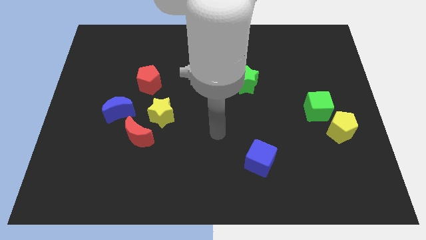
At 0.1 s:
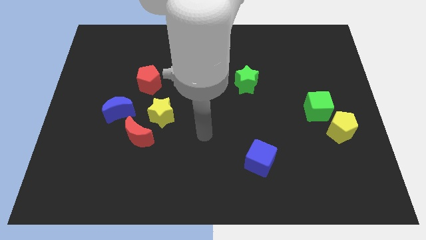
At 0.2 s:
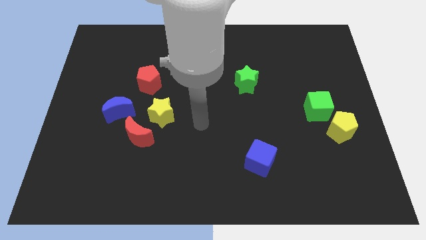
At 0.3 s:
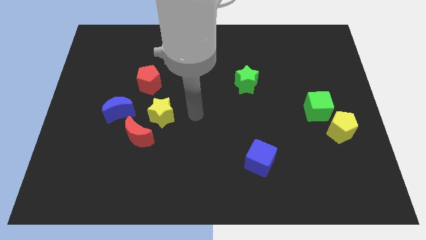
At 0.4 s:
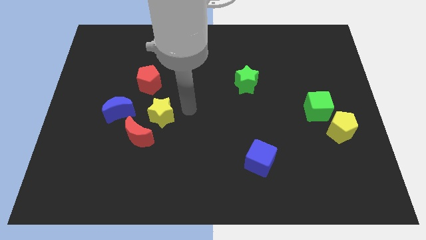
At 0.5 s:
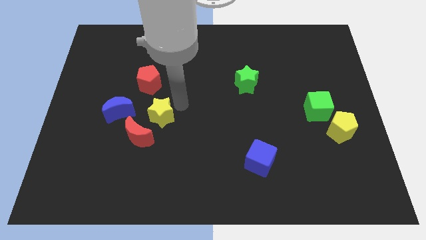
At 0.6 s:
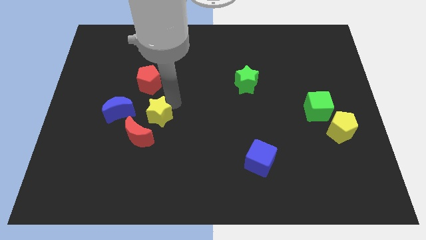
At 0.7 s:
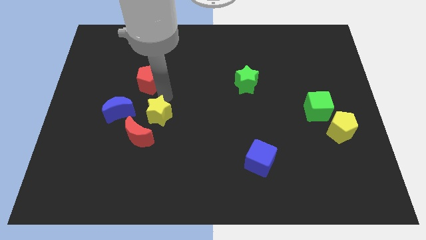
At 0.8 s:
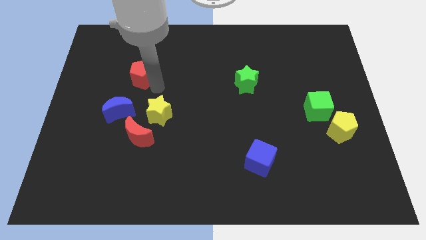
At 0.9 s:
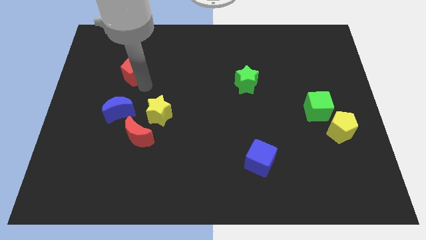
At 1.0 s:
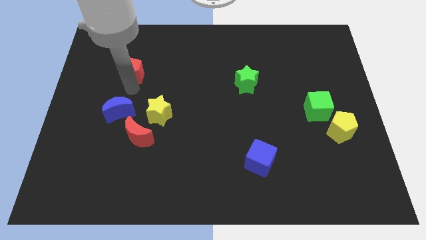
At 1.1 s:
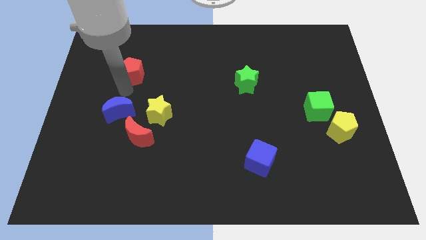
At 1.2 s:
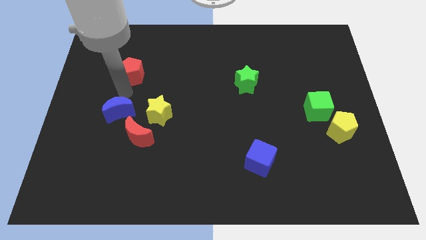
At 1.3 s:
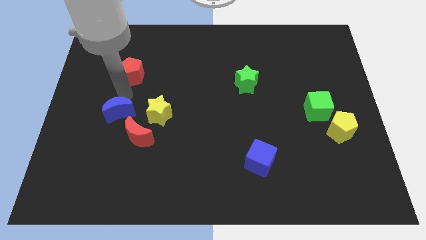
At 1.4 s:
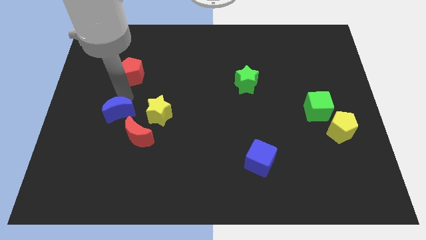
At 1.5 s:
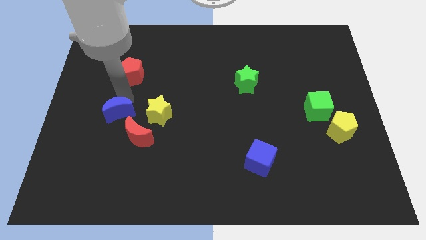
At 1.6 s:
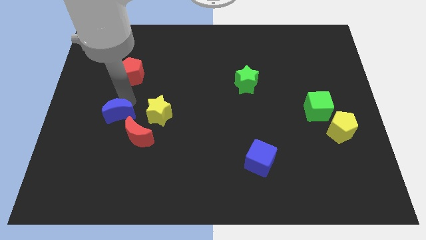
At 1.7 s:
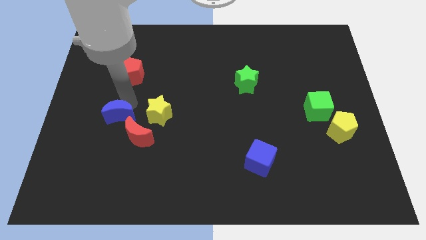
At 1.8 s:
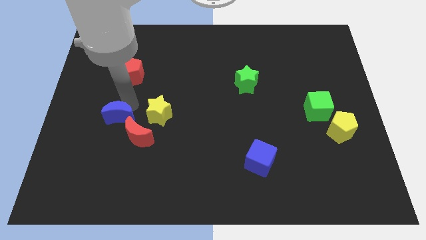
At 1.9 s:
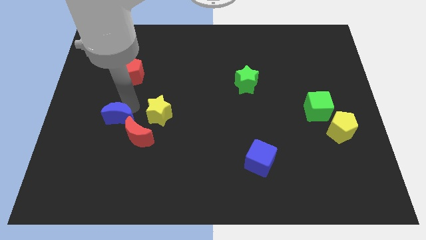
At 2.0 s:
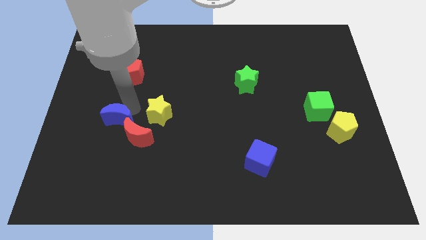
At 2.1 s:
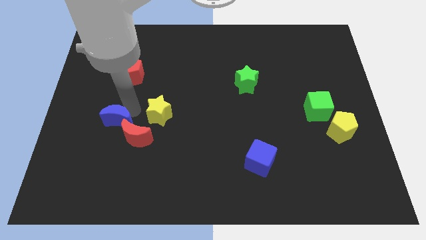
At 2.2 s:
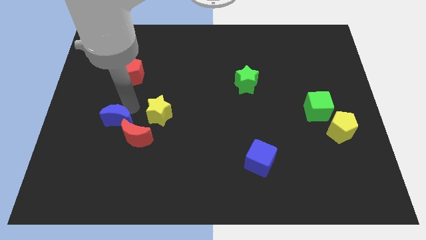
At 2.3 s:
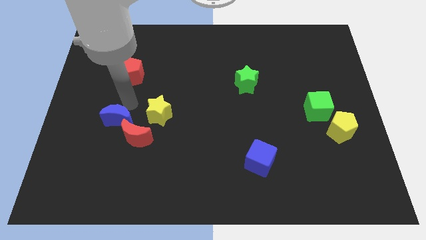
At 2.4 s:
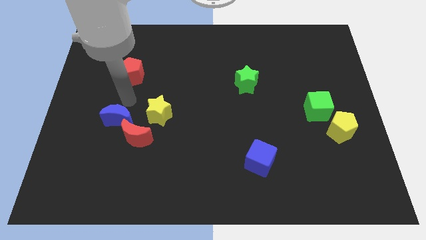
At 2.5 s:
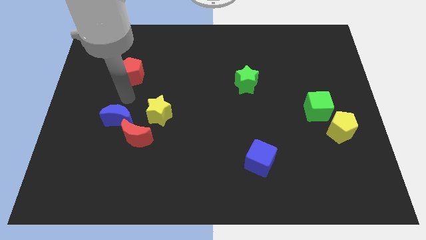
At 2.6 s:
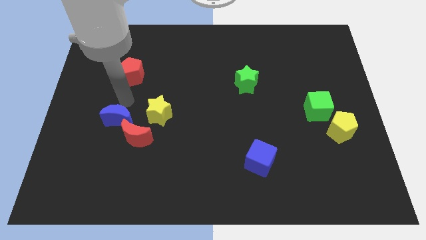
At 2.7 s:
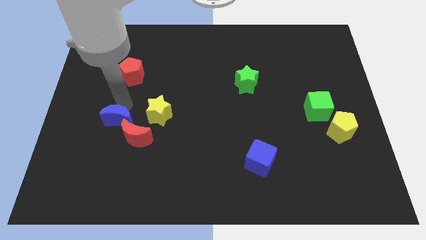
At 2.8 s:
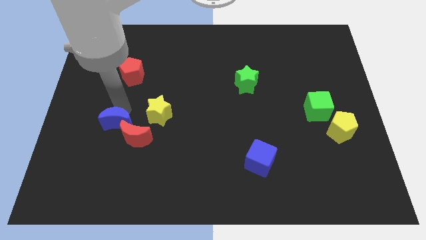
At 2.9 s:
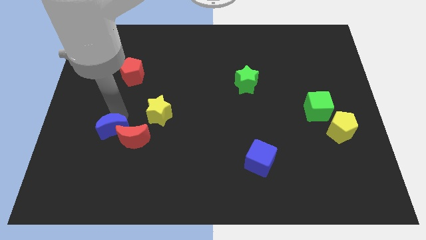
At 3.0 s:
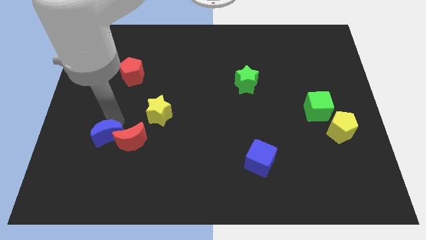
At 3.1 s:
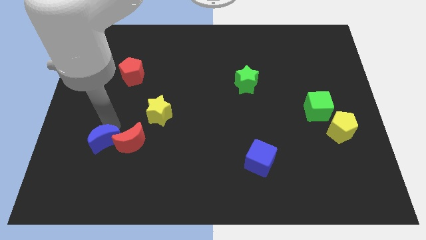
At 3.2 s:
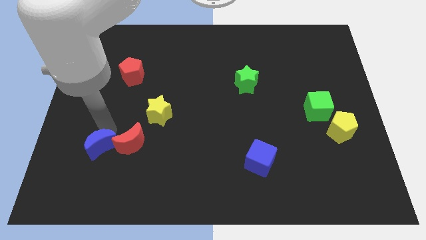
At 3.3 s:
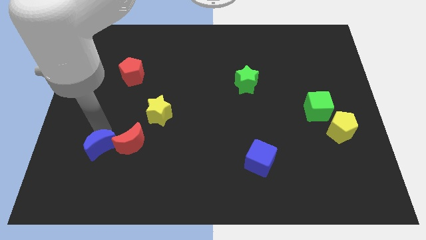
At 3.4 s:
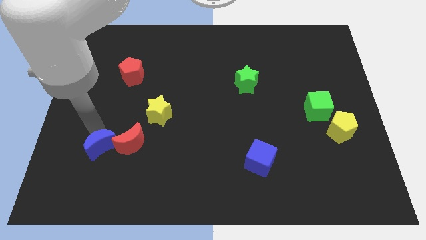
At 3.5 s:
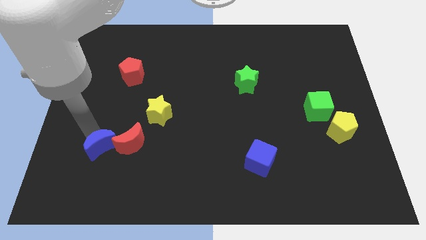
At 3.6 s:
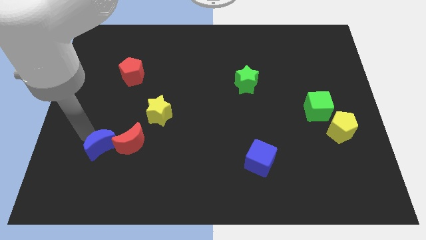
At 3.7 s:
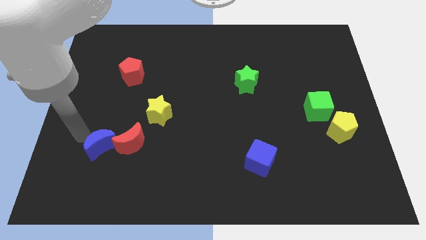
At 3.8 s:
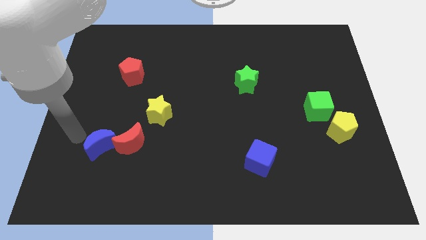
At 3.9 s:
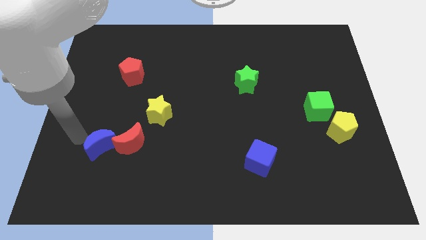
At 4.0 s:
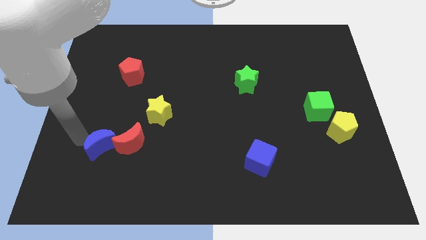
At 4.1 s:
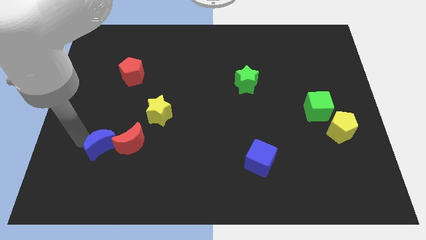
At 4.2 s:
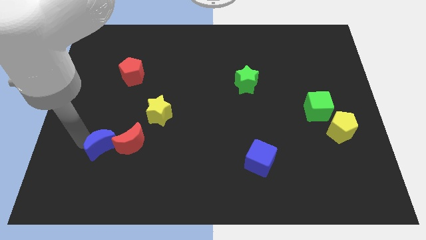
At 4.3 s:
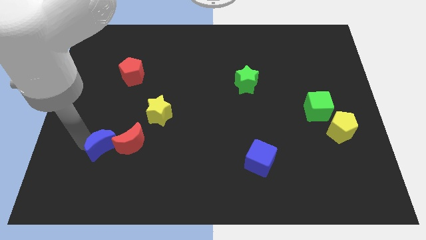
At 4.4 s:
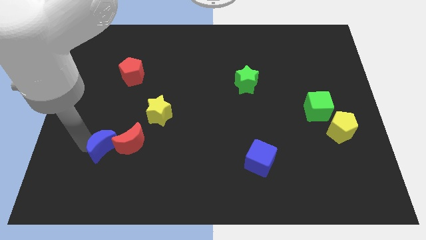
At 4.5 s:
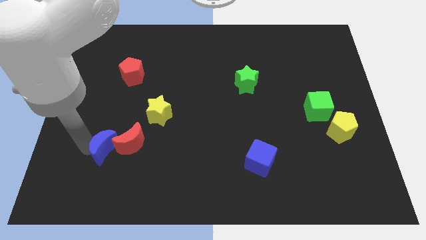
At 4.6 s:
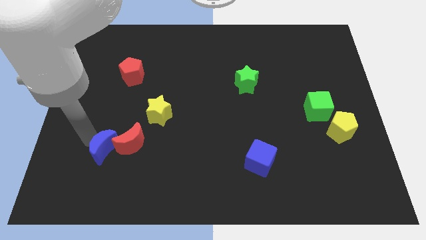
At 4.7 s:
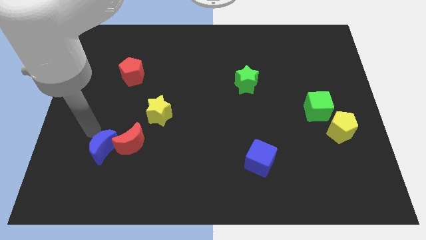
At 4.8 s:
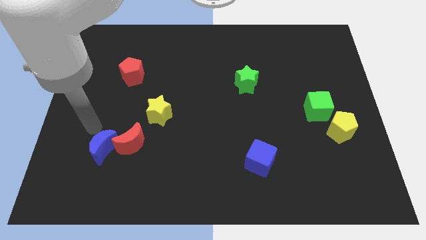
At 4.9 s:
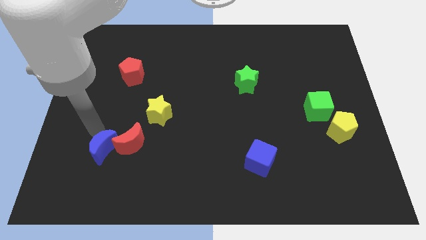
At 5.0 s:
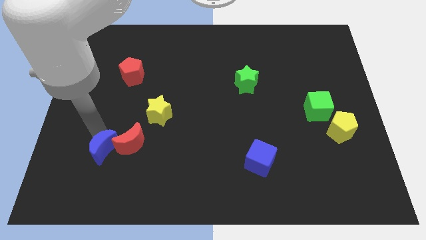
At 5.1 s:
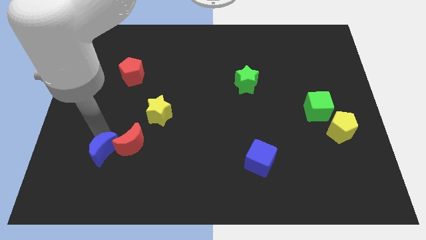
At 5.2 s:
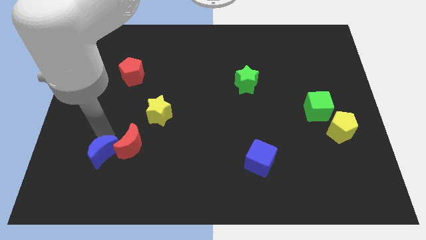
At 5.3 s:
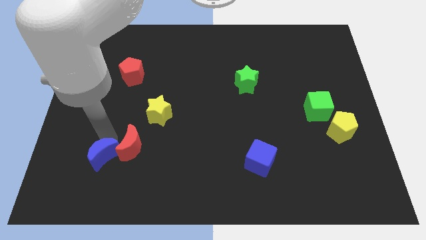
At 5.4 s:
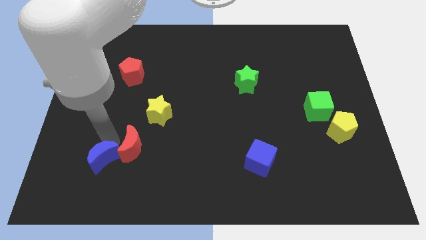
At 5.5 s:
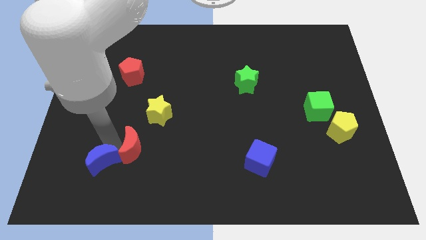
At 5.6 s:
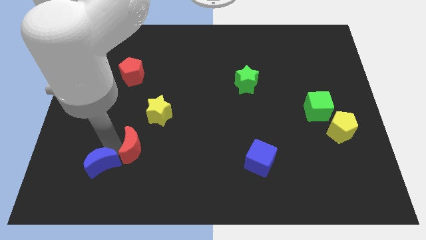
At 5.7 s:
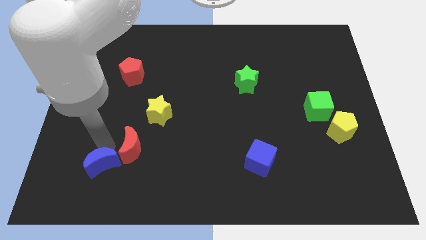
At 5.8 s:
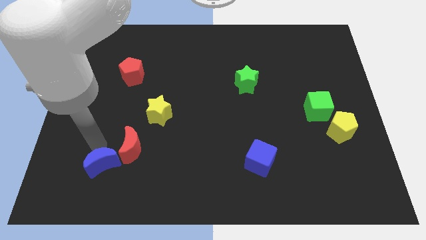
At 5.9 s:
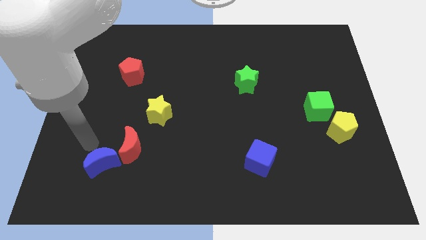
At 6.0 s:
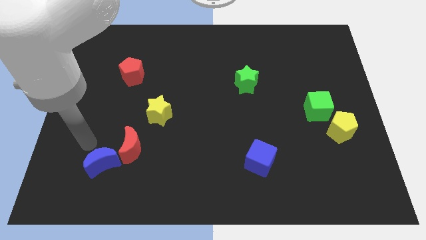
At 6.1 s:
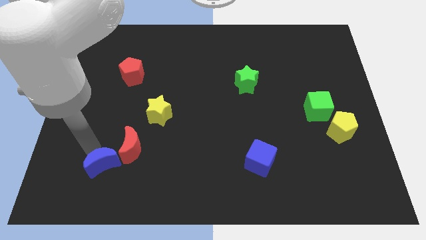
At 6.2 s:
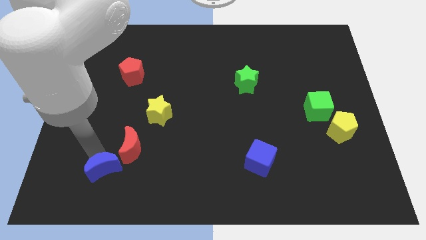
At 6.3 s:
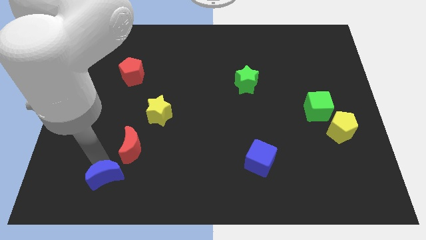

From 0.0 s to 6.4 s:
push the blue moon below the red moon
